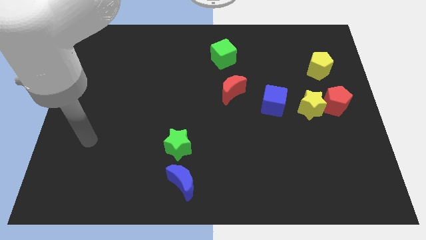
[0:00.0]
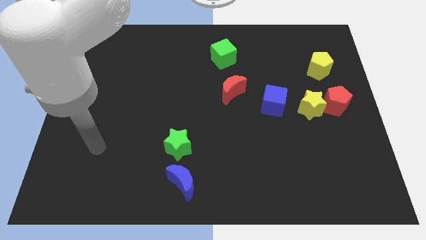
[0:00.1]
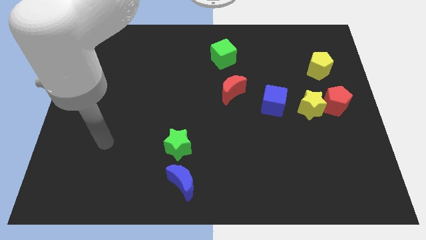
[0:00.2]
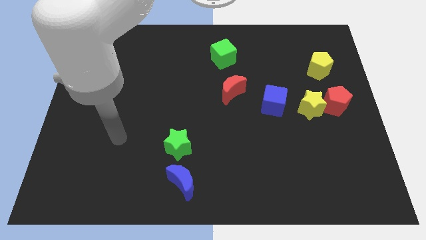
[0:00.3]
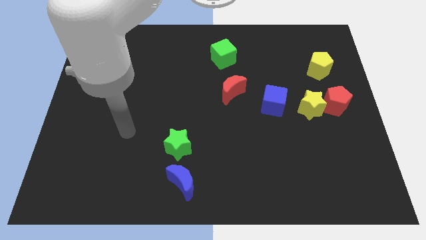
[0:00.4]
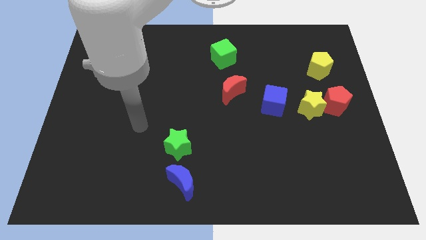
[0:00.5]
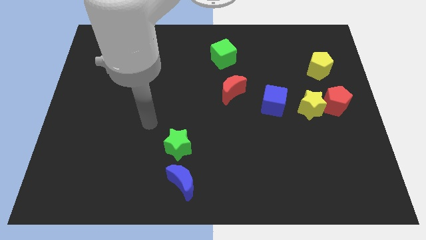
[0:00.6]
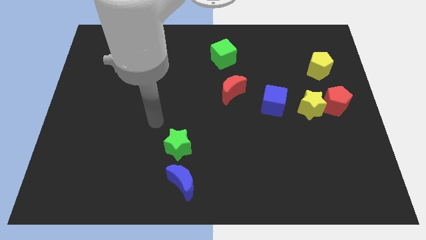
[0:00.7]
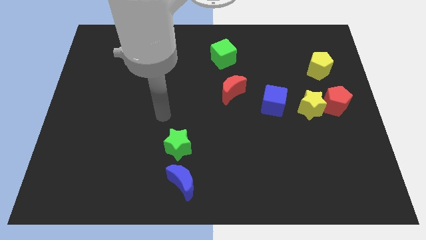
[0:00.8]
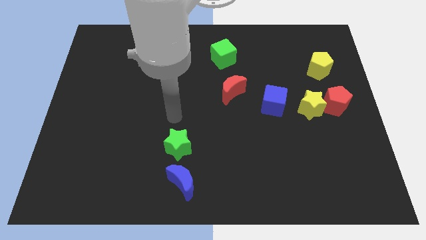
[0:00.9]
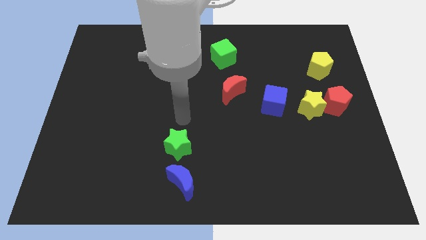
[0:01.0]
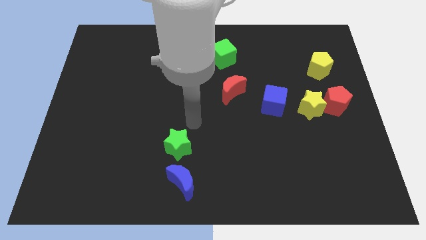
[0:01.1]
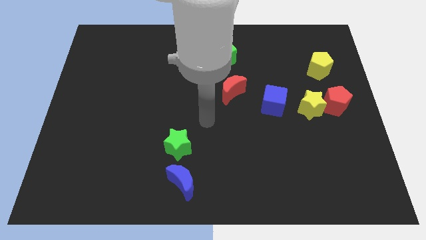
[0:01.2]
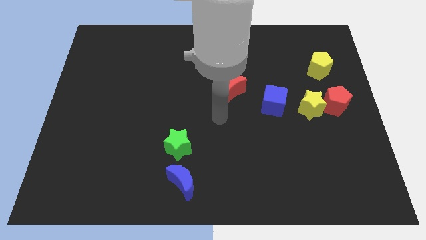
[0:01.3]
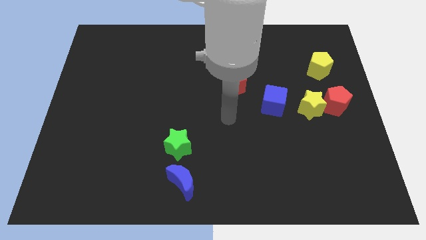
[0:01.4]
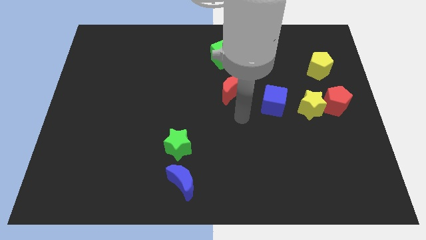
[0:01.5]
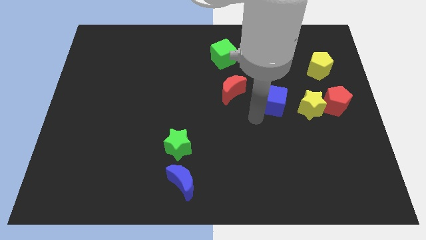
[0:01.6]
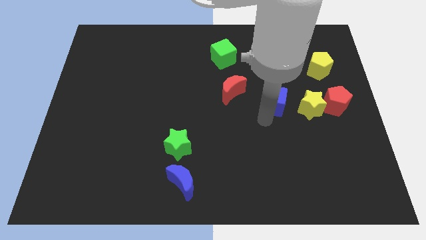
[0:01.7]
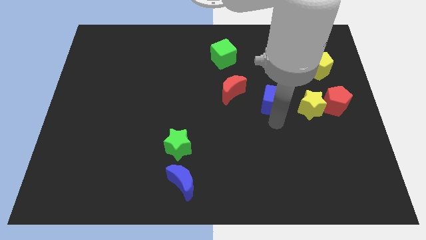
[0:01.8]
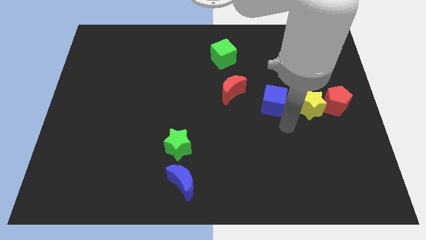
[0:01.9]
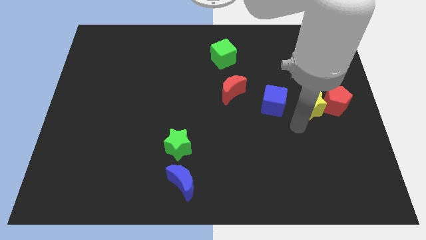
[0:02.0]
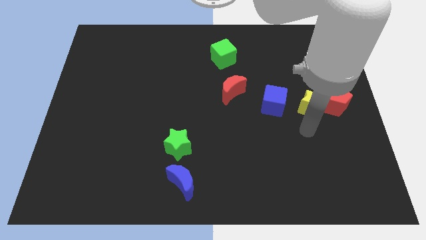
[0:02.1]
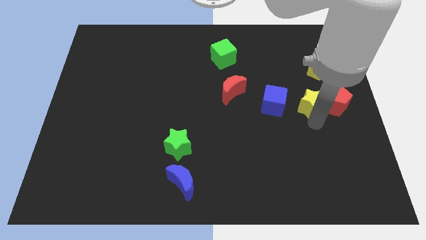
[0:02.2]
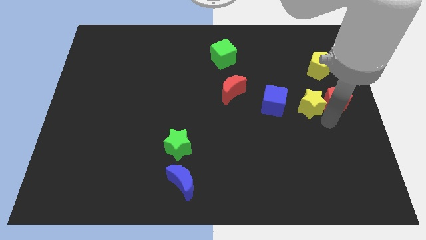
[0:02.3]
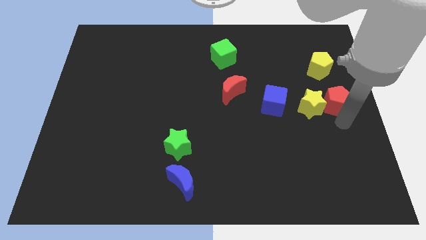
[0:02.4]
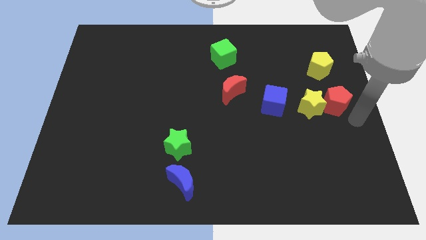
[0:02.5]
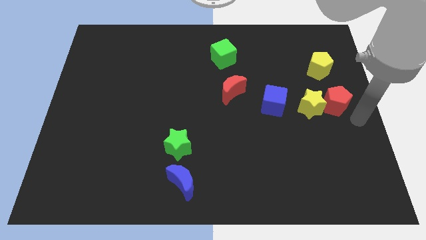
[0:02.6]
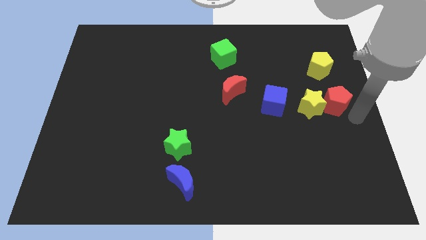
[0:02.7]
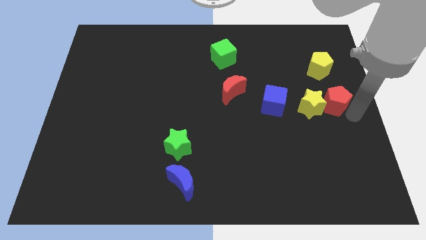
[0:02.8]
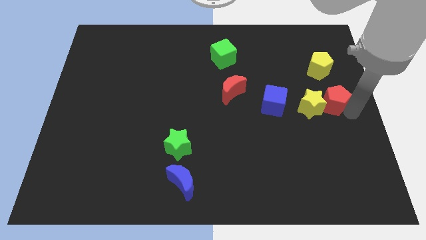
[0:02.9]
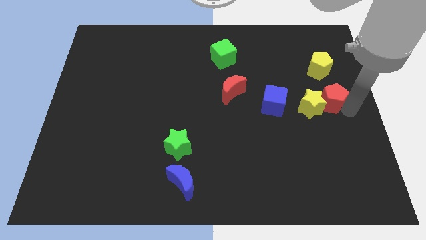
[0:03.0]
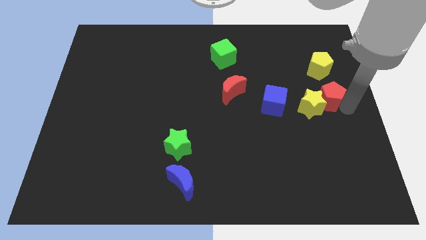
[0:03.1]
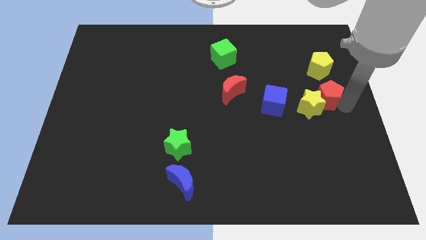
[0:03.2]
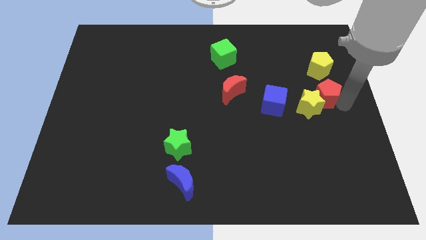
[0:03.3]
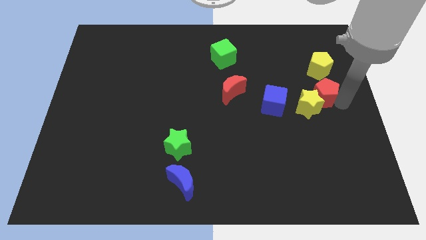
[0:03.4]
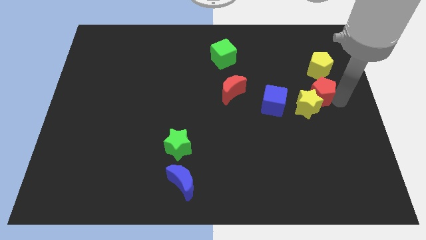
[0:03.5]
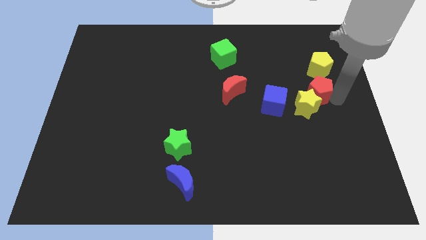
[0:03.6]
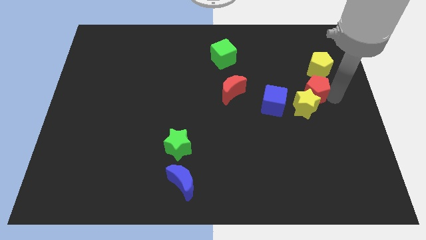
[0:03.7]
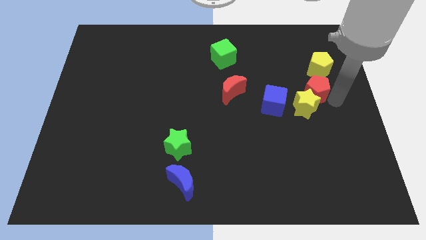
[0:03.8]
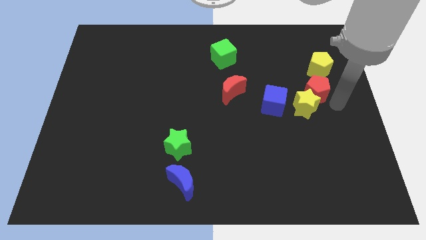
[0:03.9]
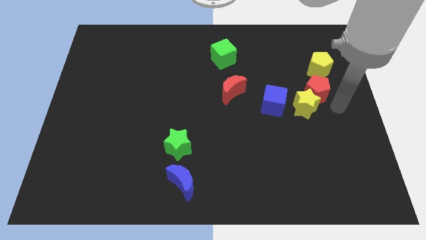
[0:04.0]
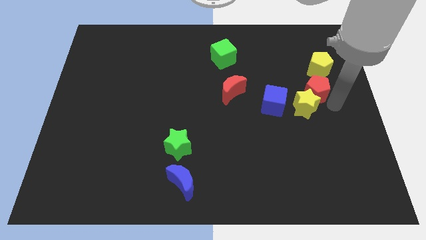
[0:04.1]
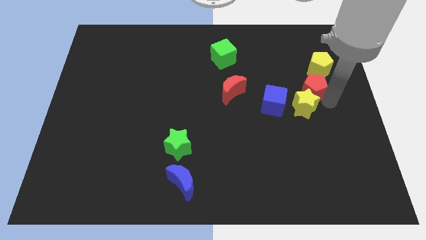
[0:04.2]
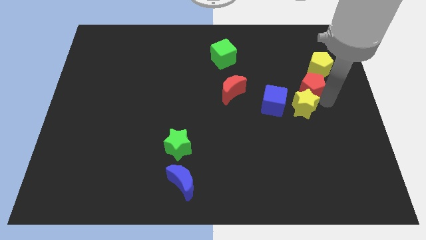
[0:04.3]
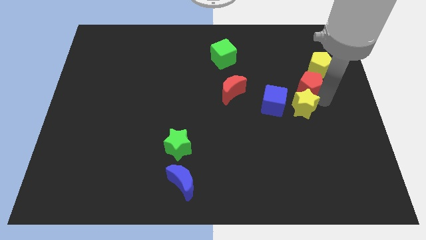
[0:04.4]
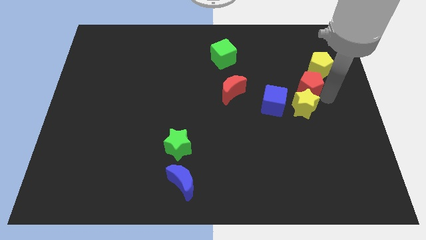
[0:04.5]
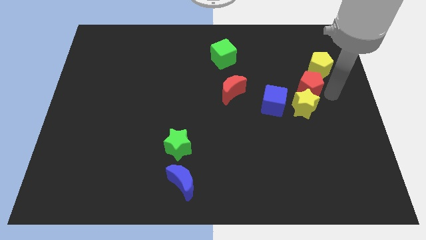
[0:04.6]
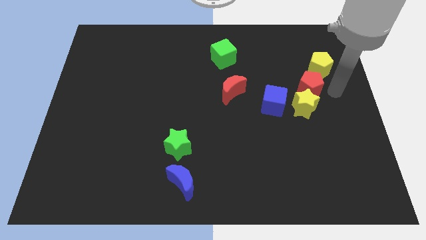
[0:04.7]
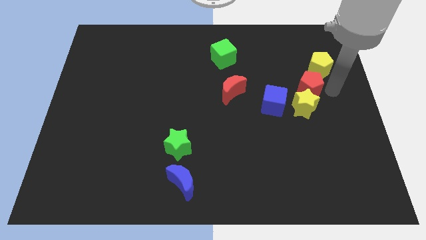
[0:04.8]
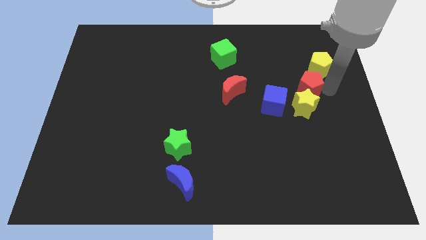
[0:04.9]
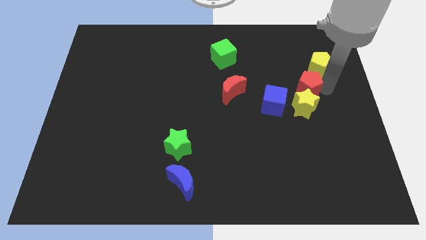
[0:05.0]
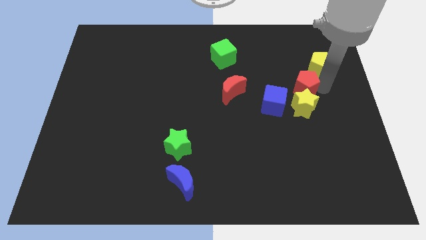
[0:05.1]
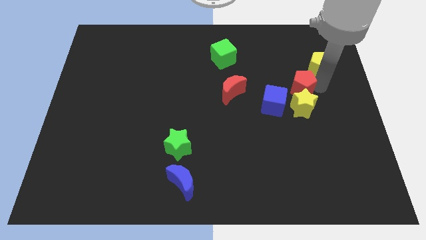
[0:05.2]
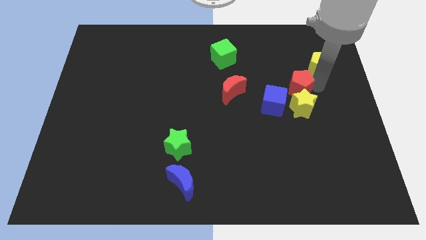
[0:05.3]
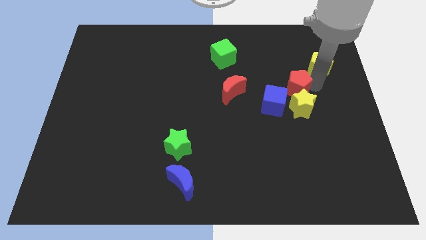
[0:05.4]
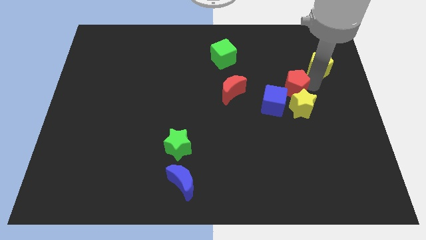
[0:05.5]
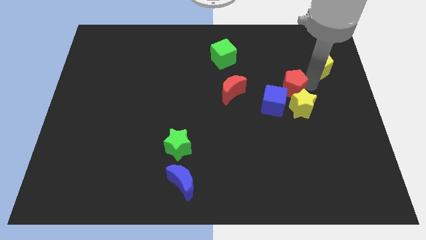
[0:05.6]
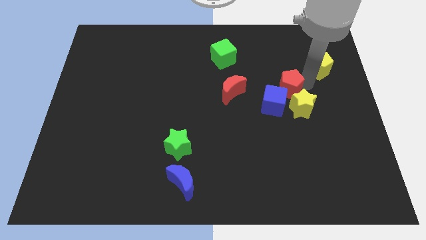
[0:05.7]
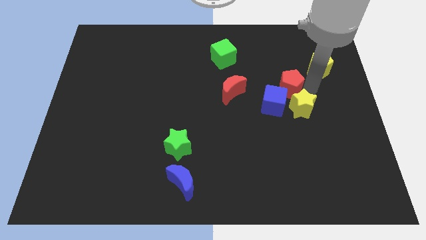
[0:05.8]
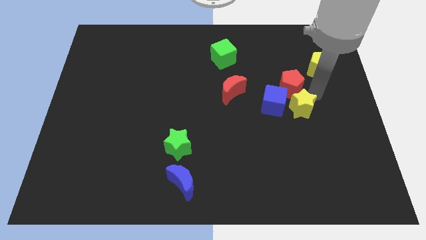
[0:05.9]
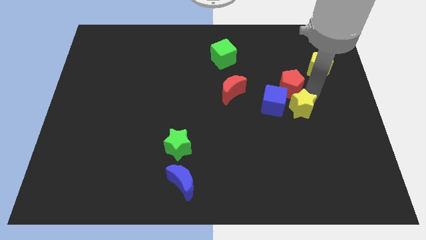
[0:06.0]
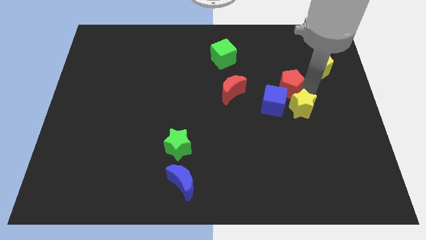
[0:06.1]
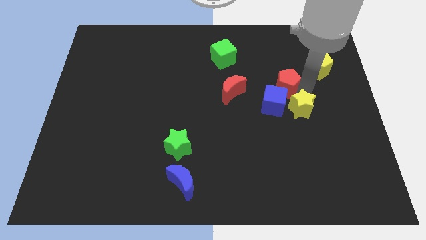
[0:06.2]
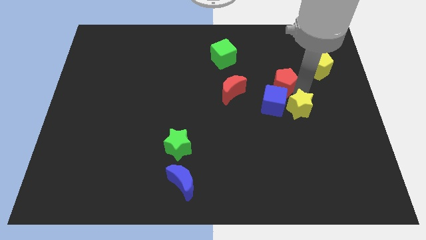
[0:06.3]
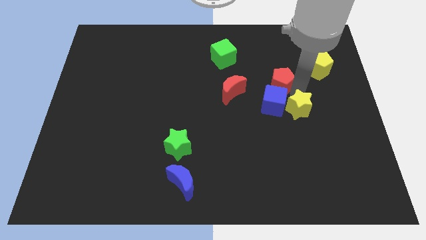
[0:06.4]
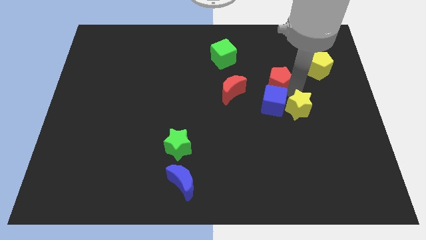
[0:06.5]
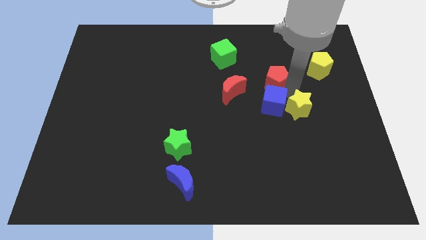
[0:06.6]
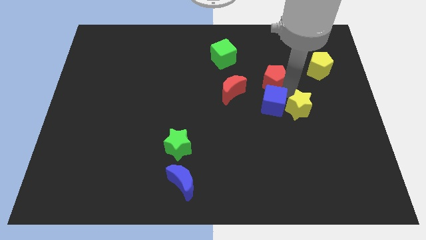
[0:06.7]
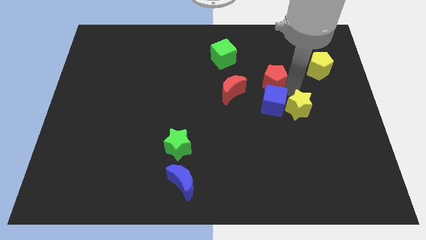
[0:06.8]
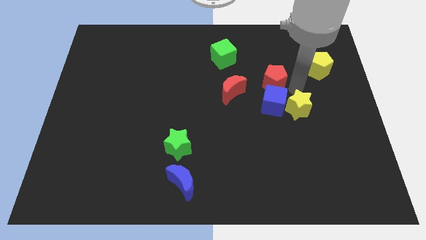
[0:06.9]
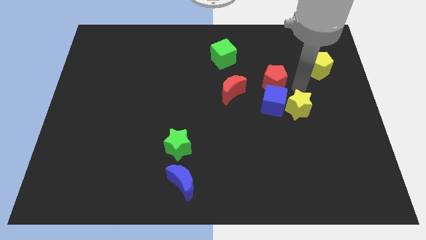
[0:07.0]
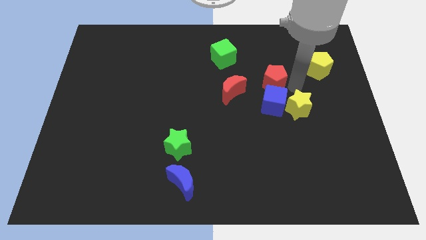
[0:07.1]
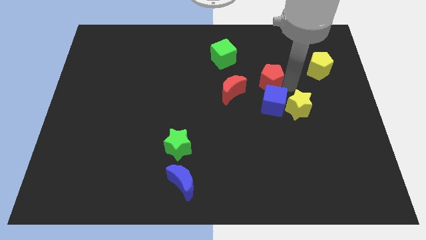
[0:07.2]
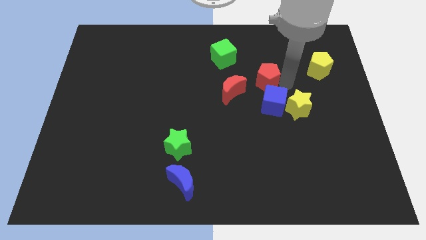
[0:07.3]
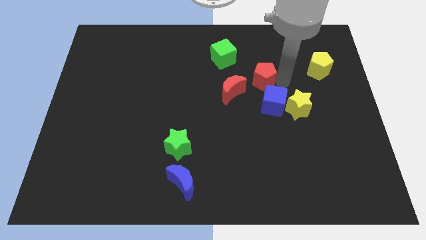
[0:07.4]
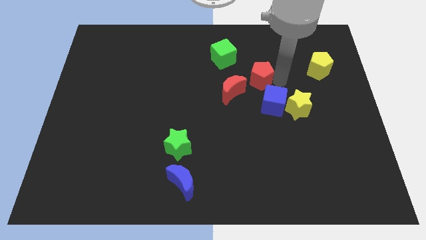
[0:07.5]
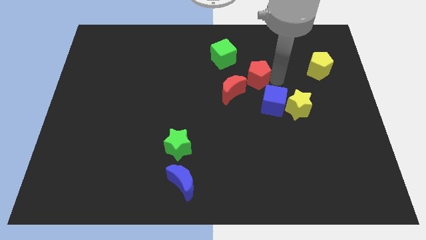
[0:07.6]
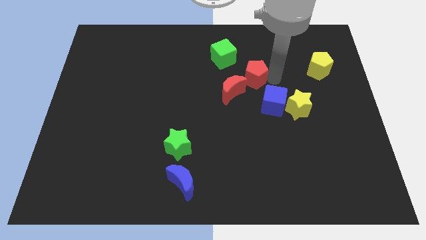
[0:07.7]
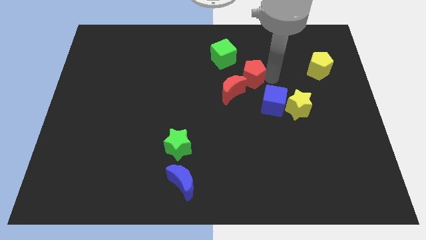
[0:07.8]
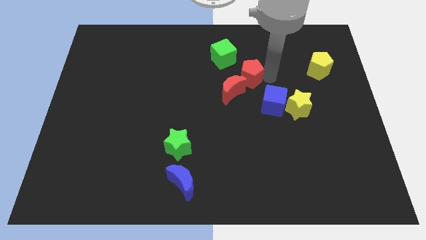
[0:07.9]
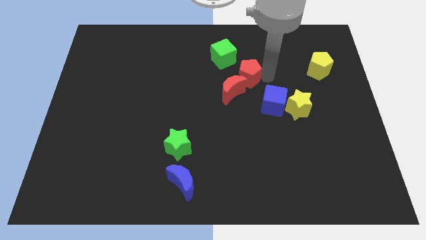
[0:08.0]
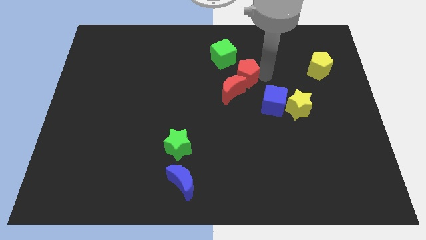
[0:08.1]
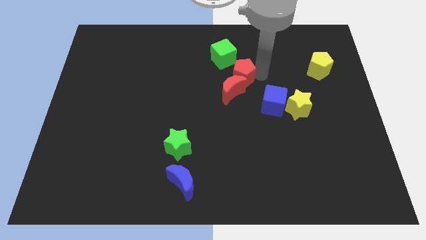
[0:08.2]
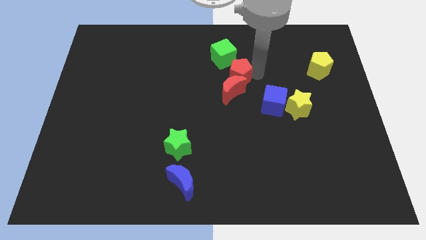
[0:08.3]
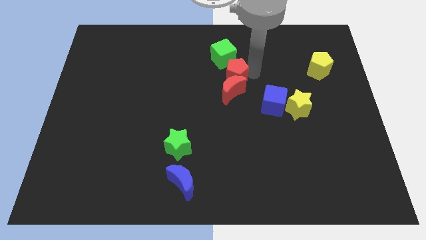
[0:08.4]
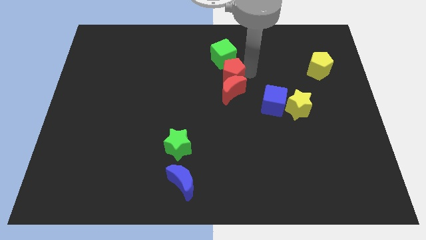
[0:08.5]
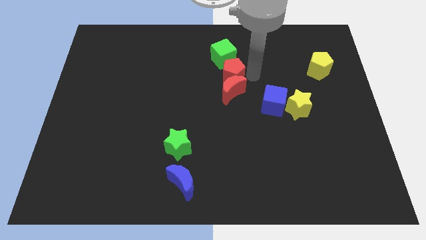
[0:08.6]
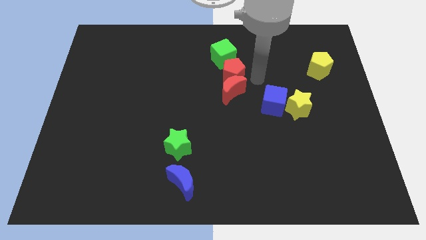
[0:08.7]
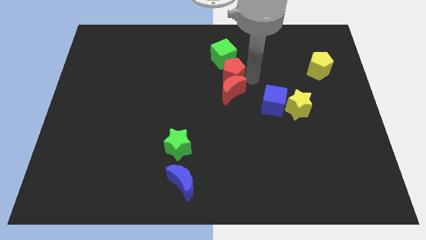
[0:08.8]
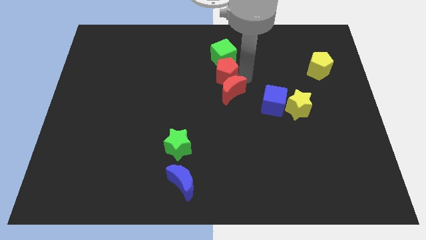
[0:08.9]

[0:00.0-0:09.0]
slide the red pentagon to the bottom left side of the green cube
